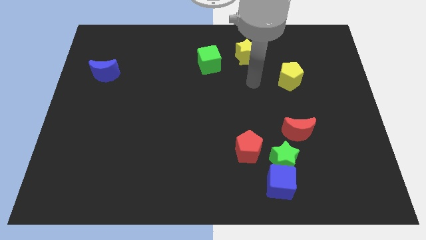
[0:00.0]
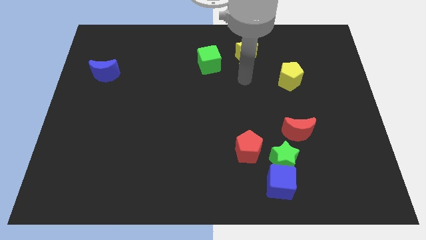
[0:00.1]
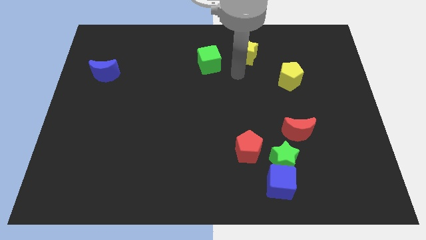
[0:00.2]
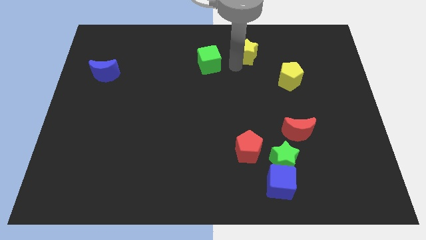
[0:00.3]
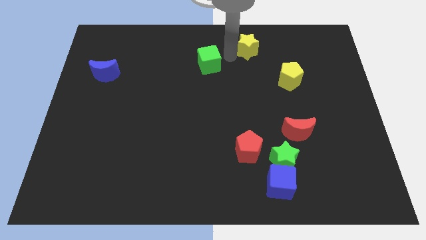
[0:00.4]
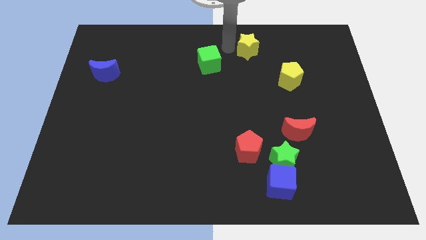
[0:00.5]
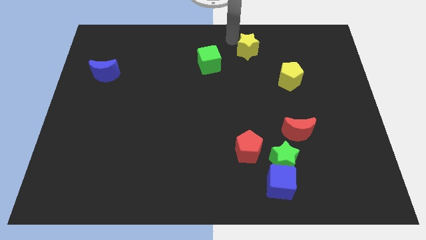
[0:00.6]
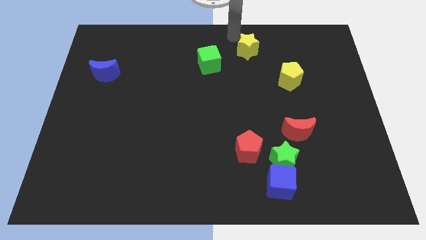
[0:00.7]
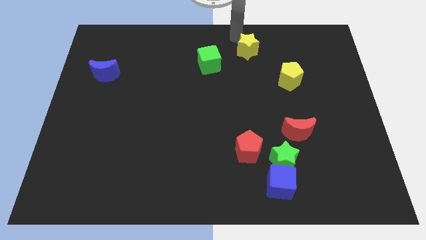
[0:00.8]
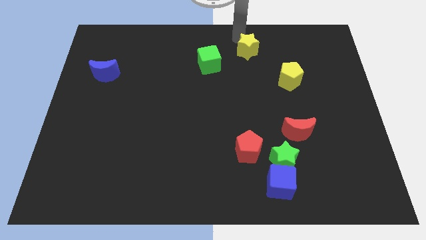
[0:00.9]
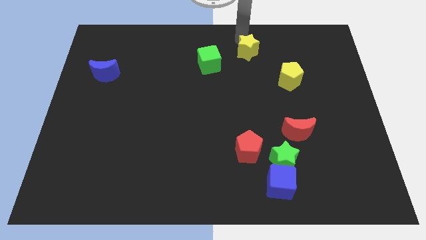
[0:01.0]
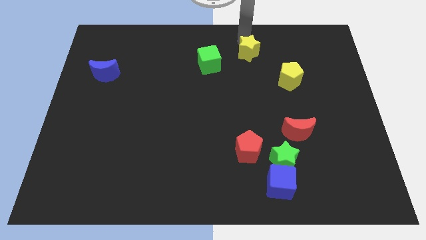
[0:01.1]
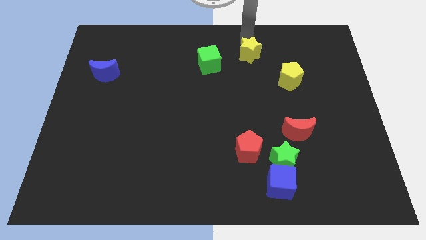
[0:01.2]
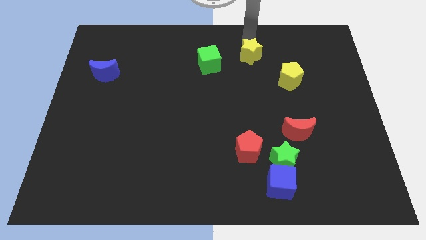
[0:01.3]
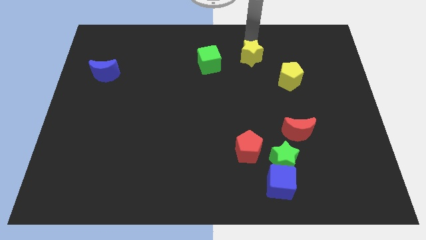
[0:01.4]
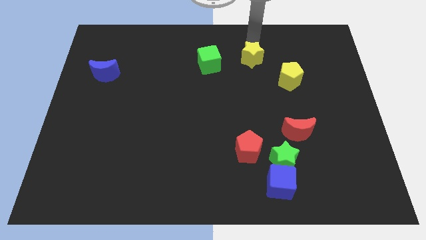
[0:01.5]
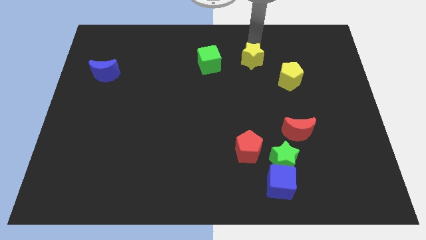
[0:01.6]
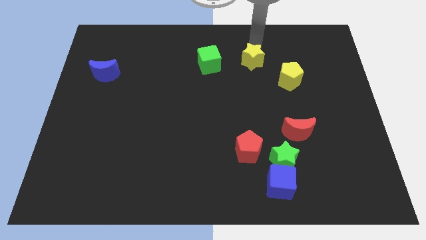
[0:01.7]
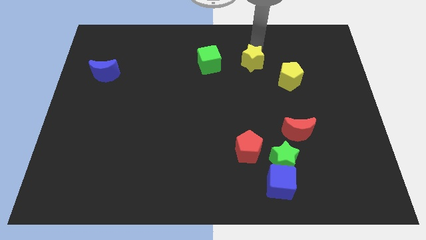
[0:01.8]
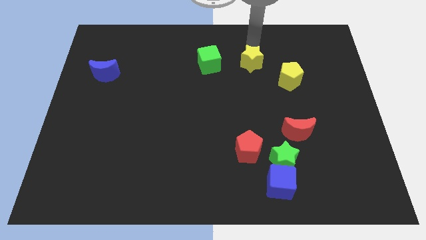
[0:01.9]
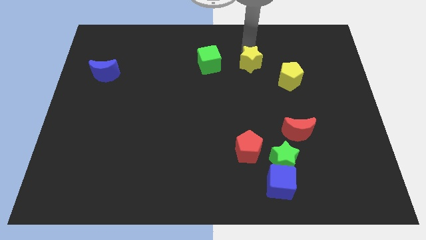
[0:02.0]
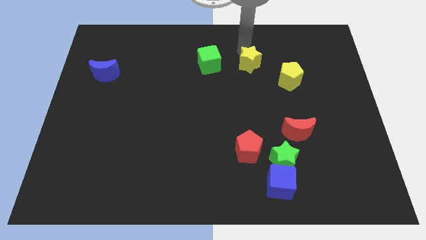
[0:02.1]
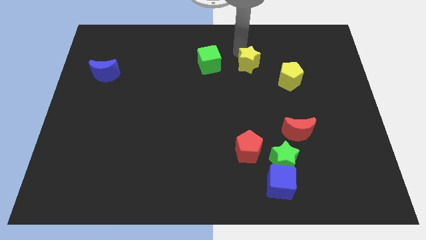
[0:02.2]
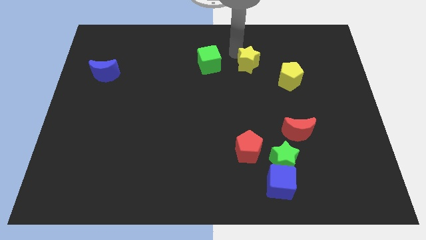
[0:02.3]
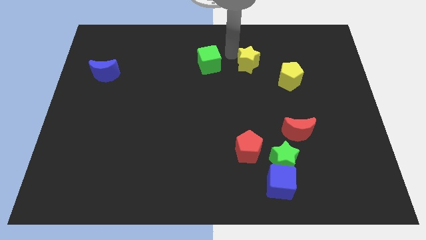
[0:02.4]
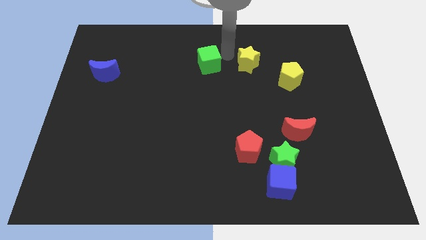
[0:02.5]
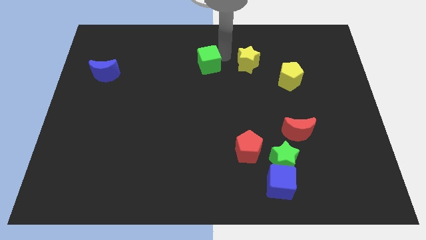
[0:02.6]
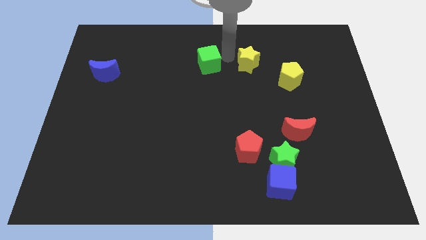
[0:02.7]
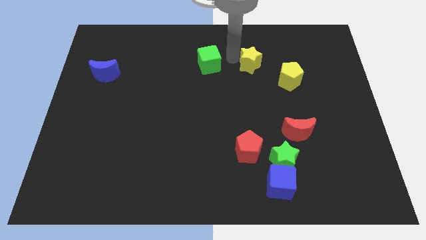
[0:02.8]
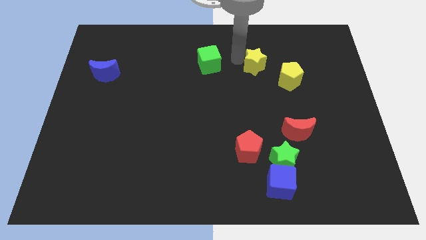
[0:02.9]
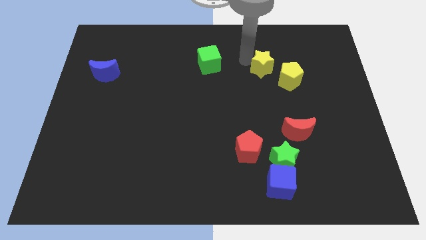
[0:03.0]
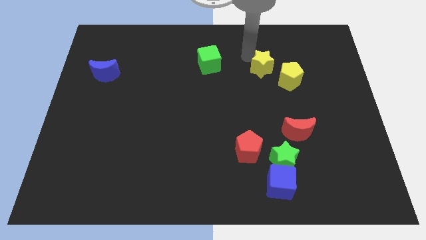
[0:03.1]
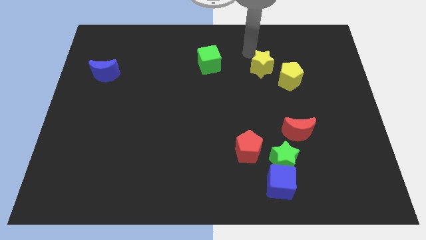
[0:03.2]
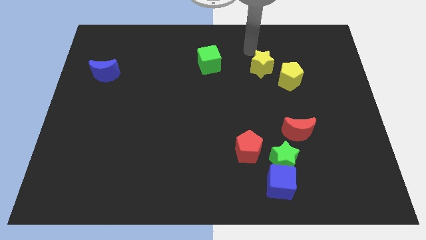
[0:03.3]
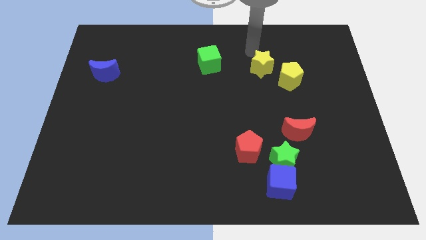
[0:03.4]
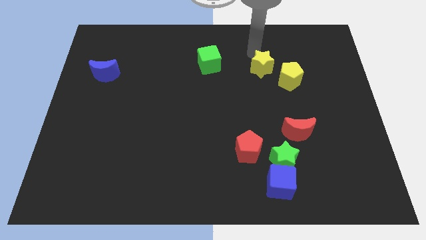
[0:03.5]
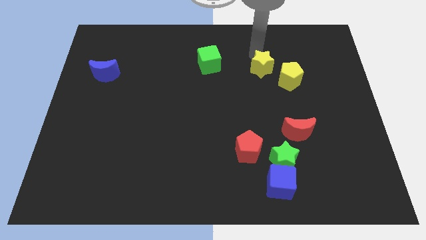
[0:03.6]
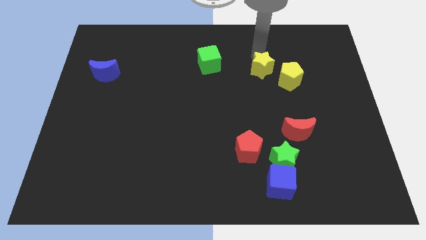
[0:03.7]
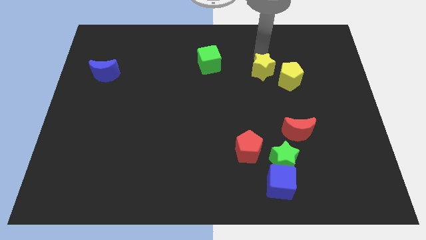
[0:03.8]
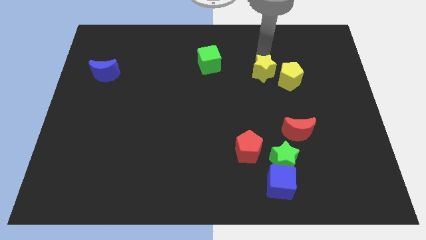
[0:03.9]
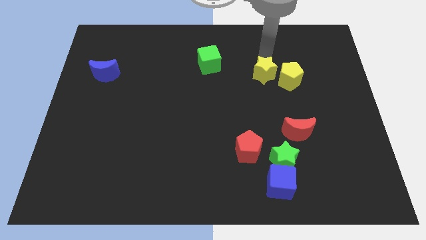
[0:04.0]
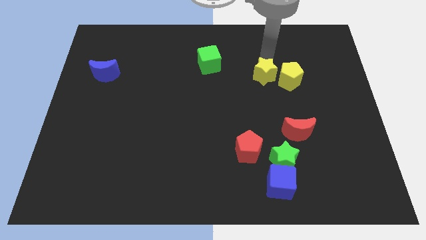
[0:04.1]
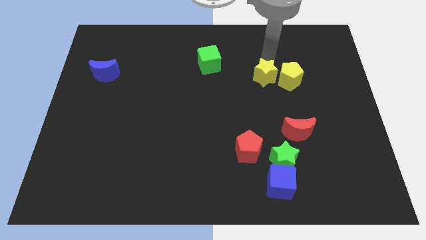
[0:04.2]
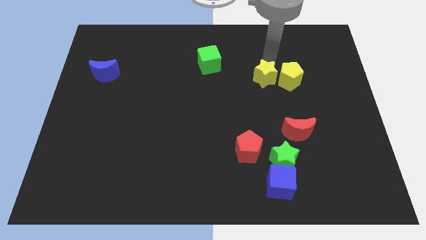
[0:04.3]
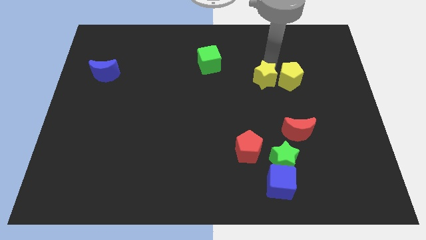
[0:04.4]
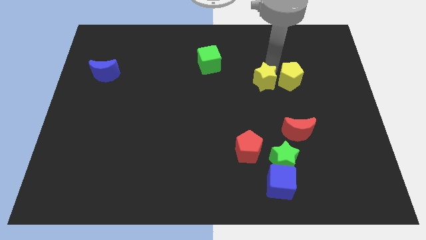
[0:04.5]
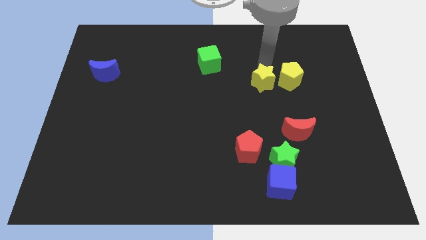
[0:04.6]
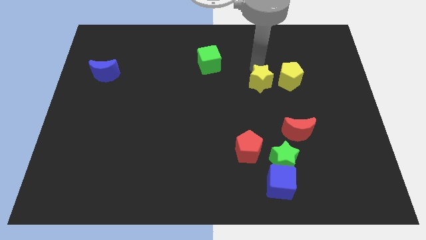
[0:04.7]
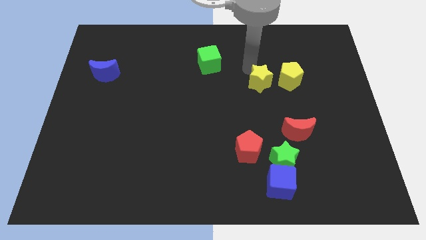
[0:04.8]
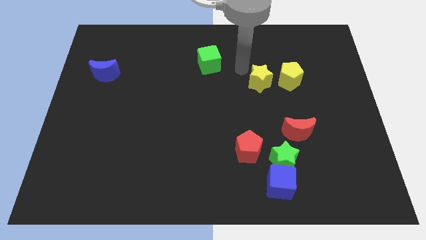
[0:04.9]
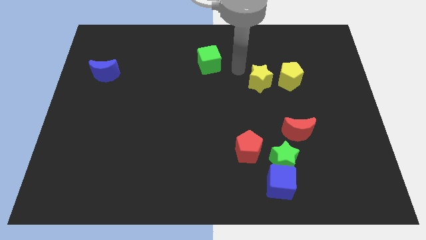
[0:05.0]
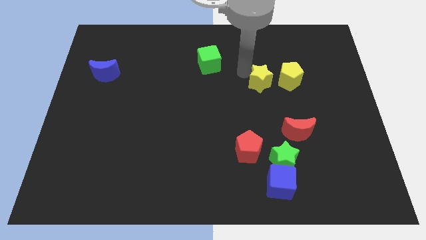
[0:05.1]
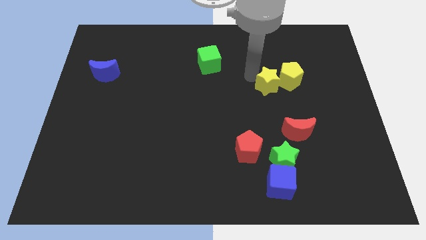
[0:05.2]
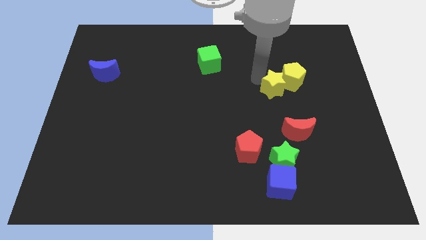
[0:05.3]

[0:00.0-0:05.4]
put the yellow star to the top side of the red moon
